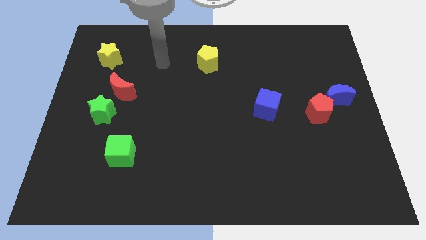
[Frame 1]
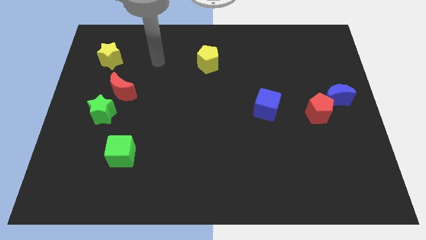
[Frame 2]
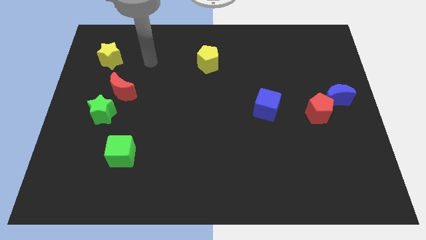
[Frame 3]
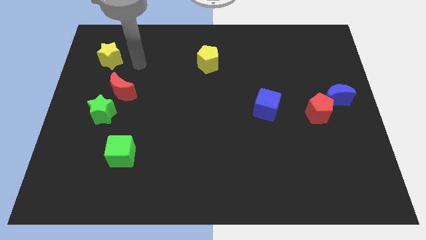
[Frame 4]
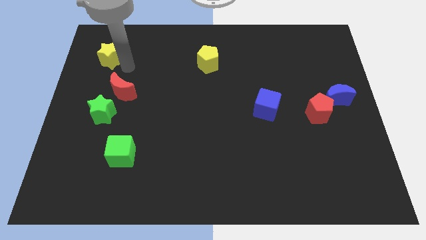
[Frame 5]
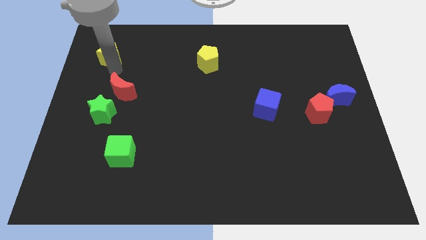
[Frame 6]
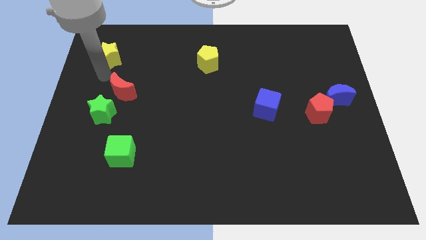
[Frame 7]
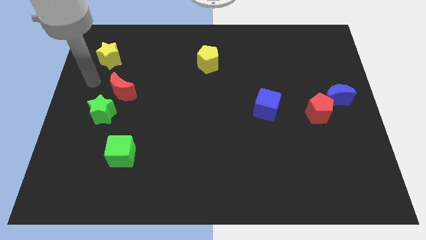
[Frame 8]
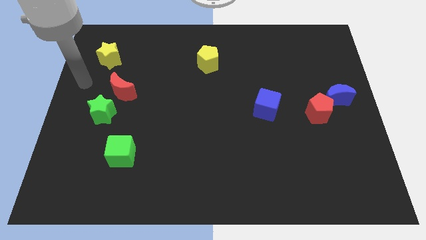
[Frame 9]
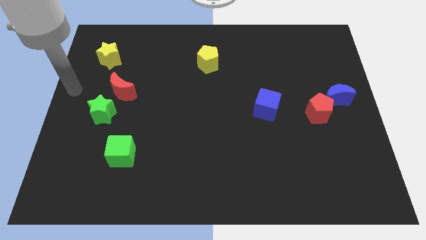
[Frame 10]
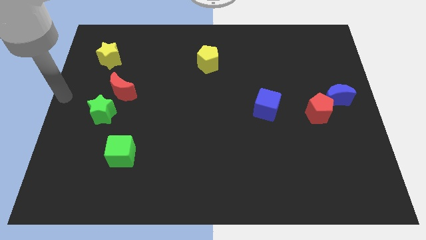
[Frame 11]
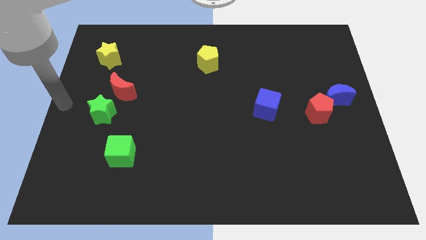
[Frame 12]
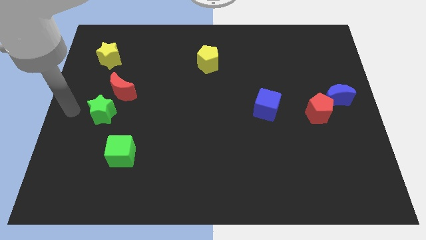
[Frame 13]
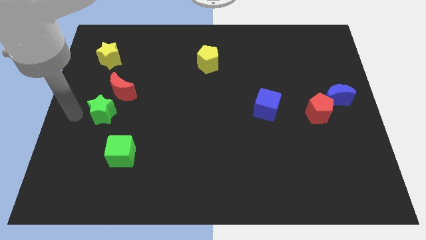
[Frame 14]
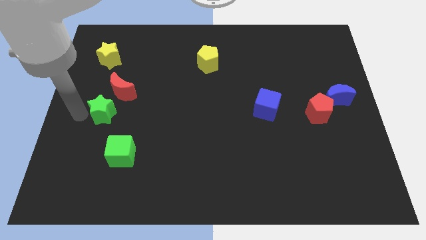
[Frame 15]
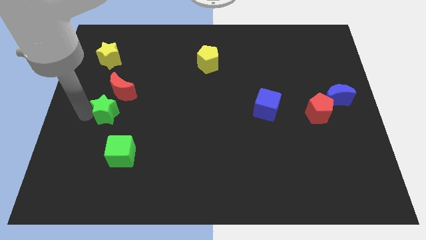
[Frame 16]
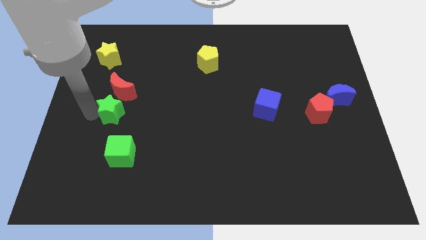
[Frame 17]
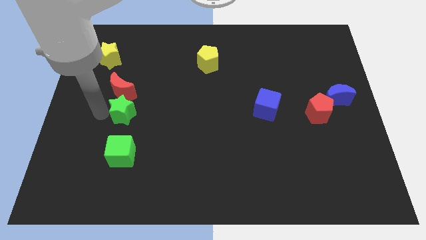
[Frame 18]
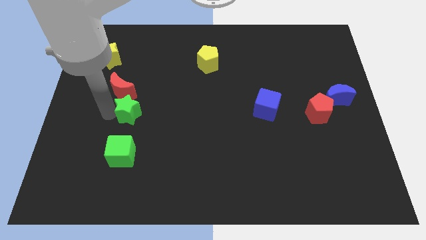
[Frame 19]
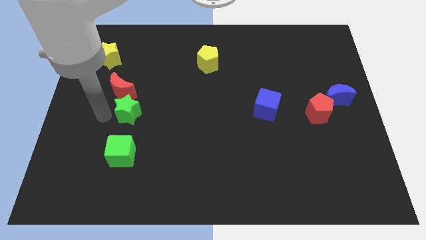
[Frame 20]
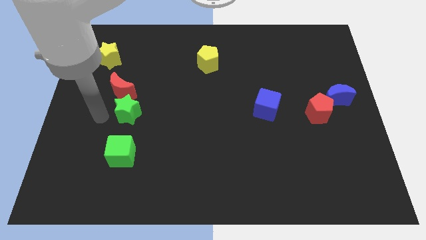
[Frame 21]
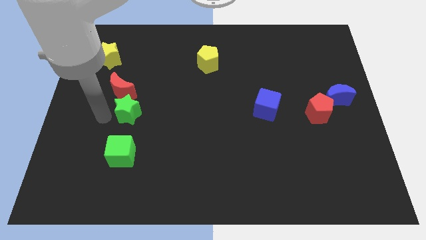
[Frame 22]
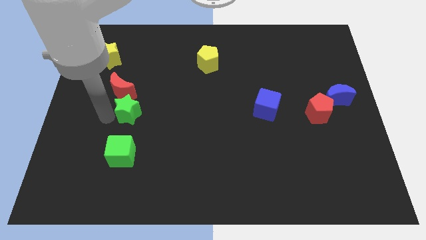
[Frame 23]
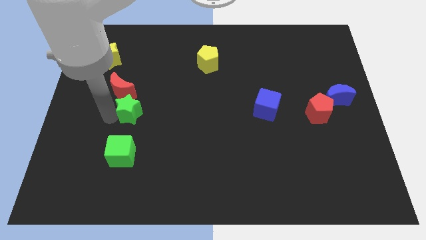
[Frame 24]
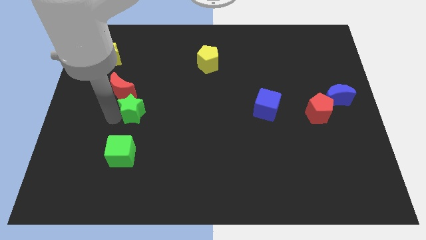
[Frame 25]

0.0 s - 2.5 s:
slightly move the green star right

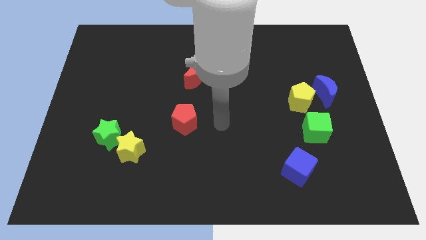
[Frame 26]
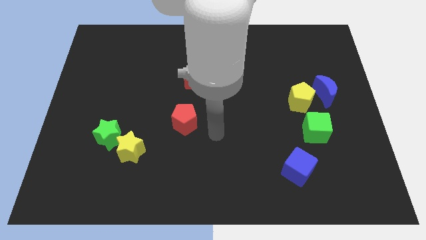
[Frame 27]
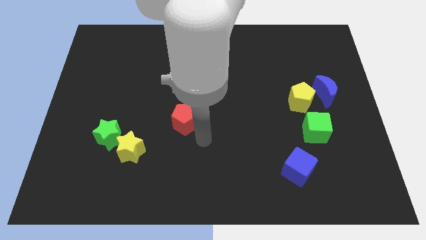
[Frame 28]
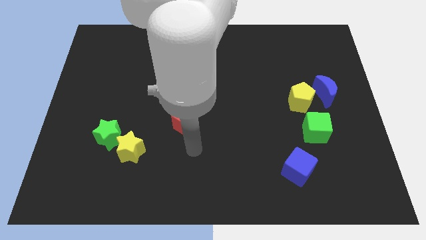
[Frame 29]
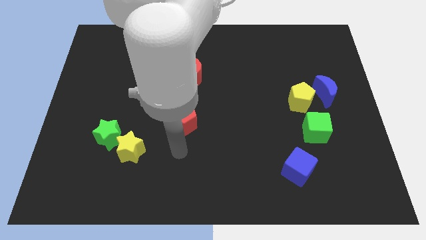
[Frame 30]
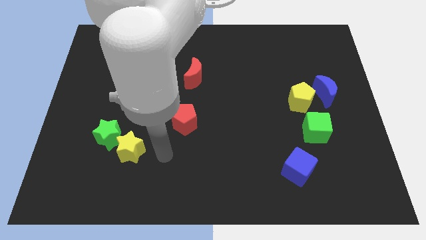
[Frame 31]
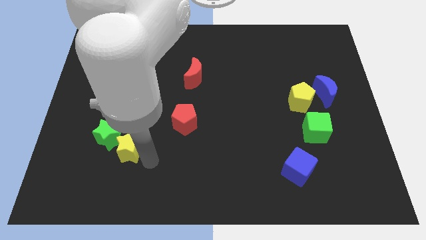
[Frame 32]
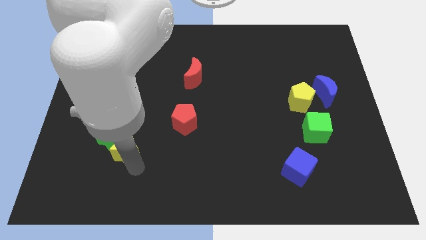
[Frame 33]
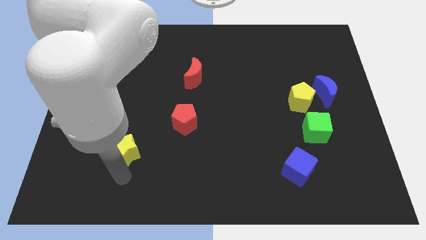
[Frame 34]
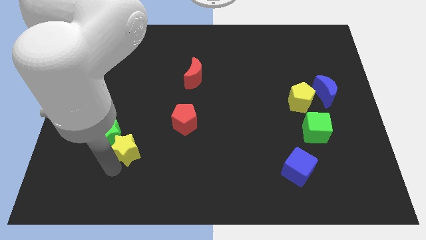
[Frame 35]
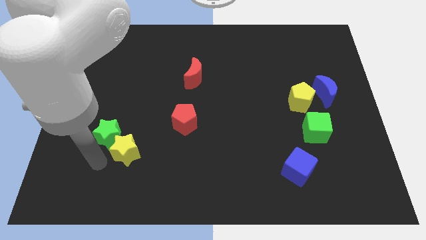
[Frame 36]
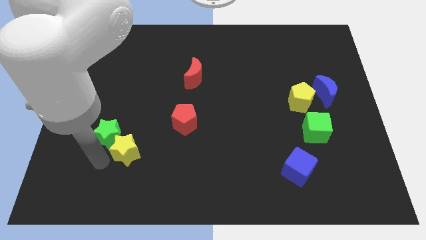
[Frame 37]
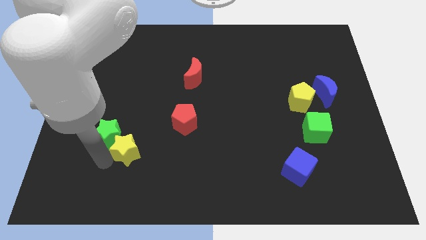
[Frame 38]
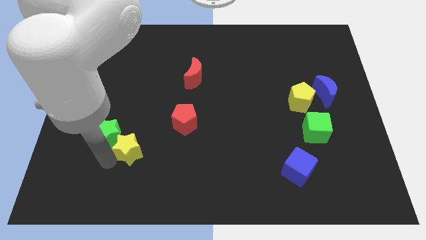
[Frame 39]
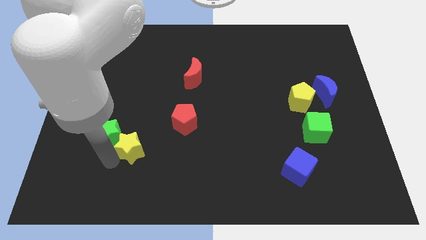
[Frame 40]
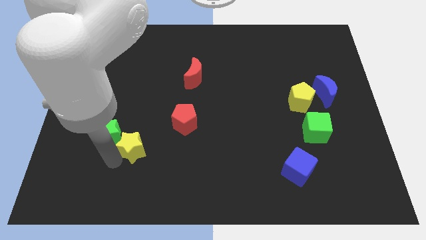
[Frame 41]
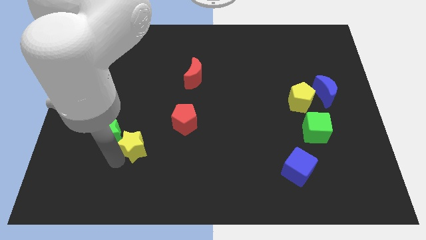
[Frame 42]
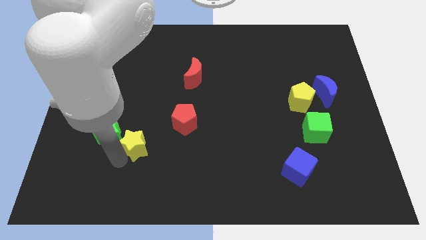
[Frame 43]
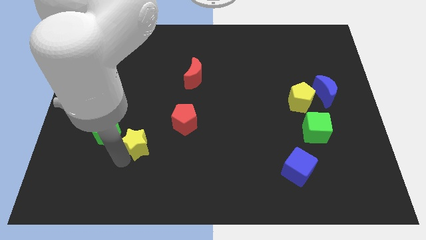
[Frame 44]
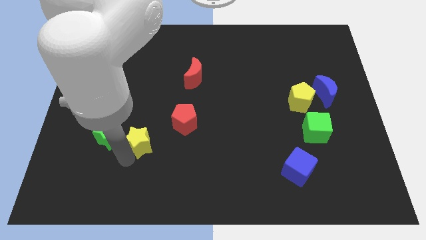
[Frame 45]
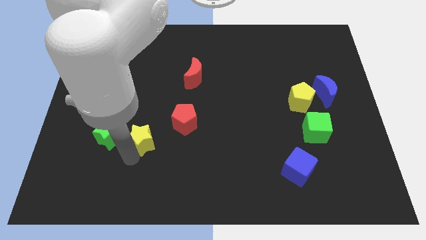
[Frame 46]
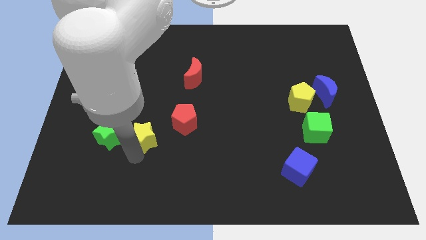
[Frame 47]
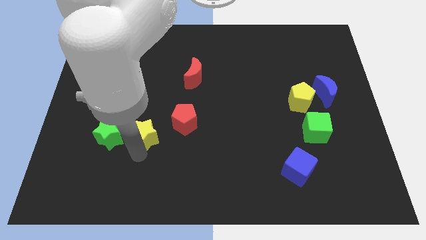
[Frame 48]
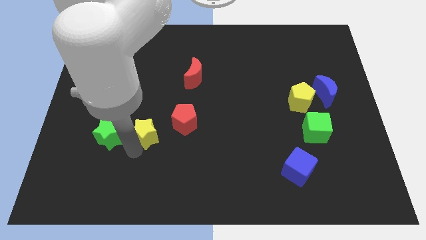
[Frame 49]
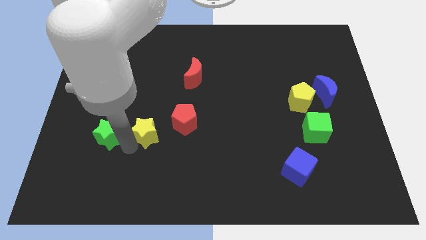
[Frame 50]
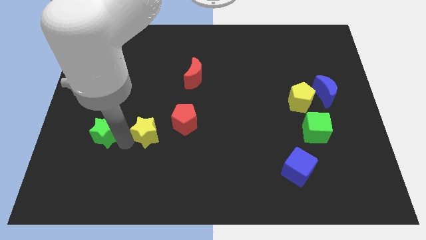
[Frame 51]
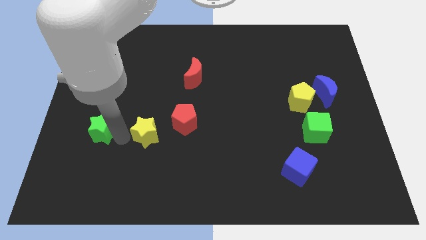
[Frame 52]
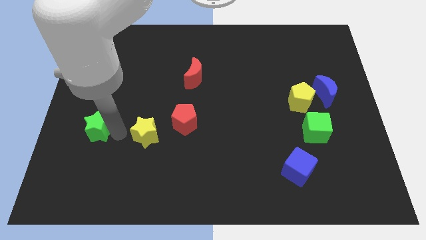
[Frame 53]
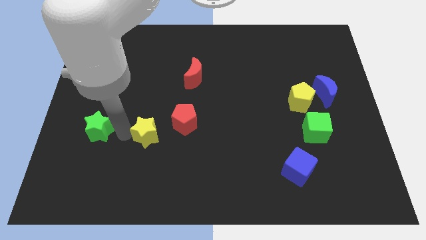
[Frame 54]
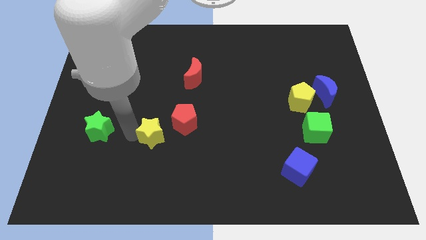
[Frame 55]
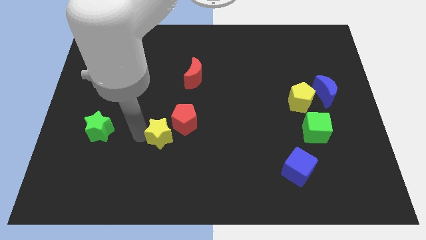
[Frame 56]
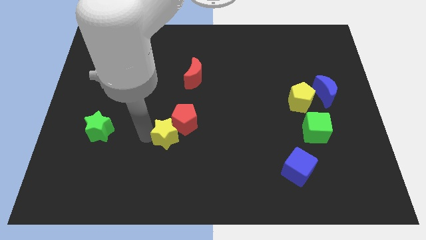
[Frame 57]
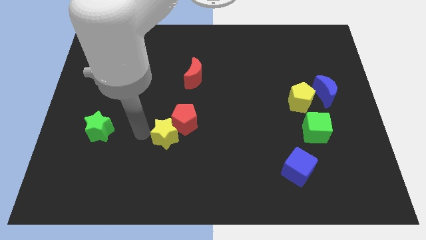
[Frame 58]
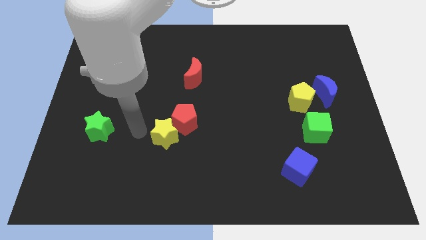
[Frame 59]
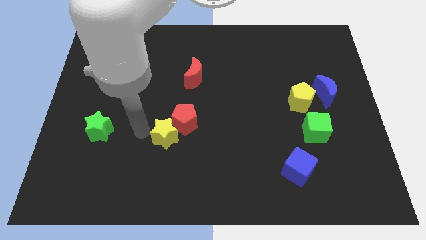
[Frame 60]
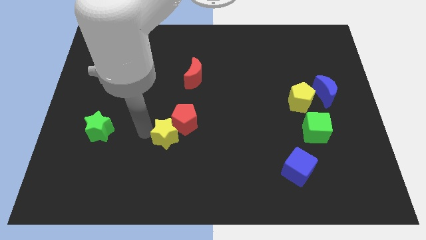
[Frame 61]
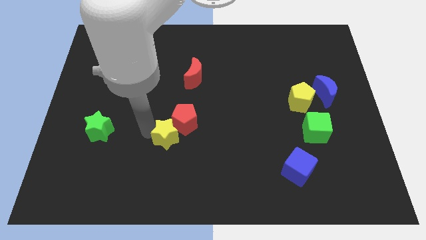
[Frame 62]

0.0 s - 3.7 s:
push the yellow star right a bit

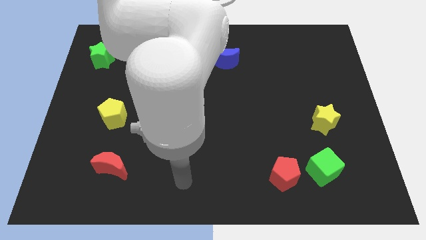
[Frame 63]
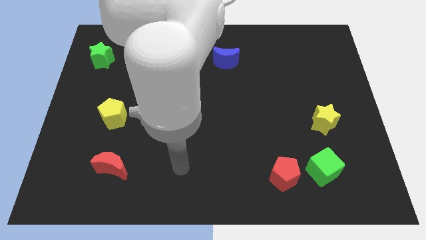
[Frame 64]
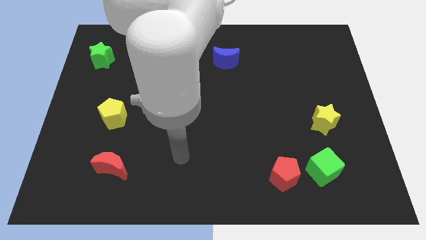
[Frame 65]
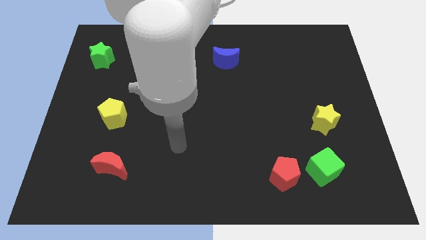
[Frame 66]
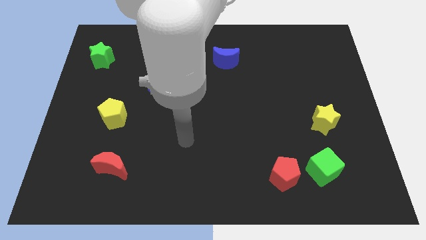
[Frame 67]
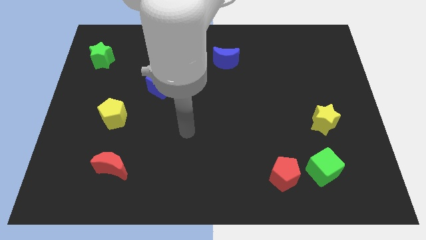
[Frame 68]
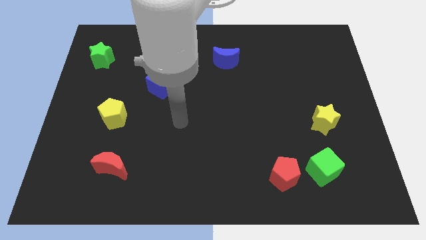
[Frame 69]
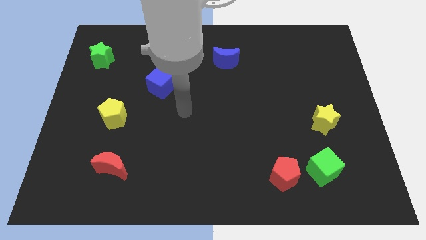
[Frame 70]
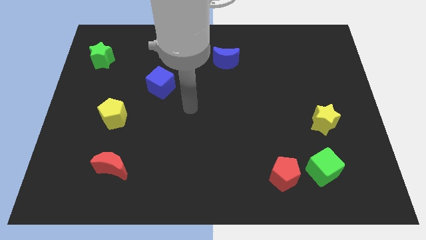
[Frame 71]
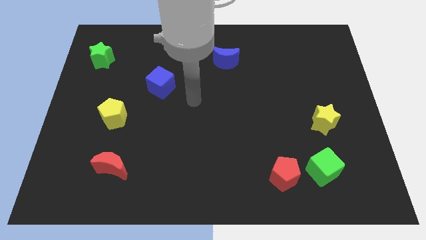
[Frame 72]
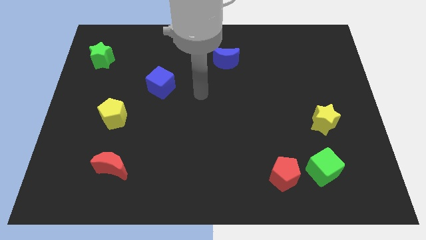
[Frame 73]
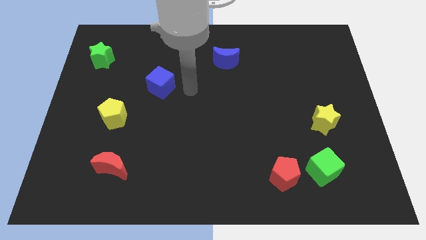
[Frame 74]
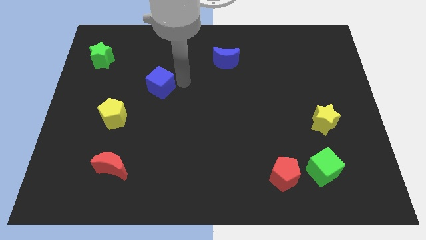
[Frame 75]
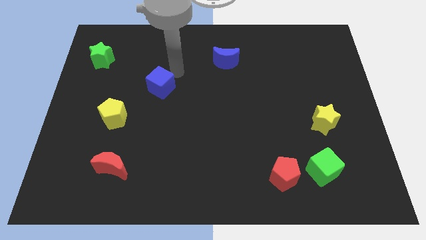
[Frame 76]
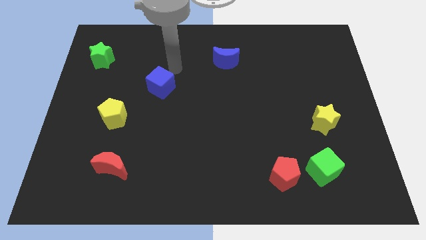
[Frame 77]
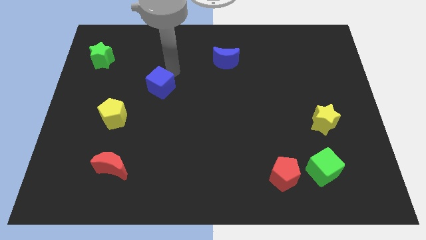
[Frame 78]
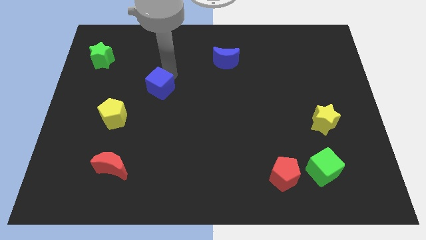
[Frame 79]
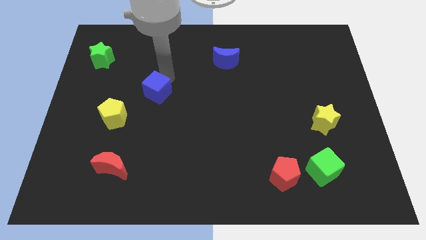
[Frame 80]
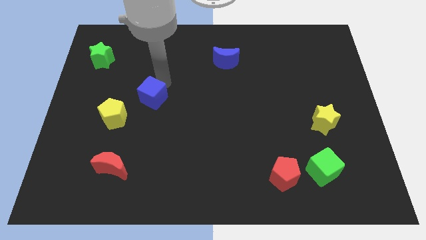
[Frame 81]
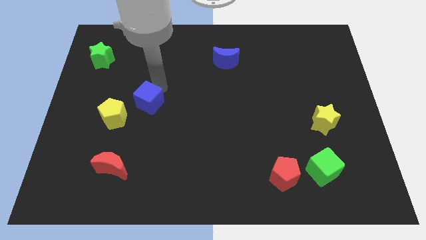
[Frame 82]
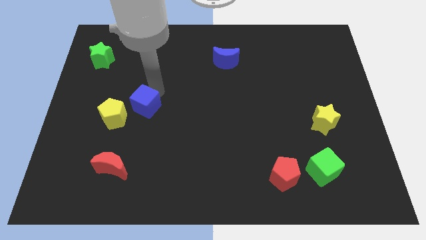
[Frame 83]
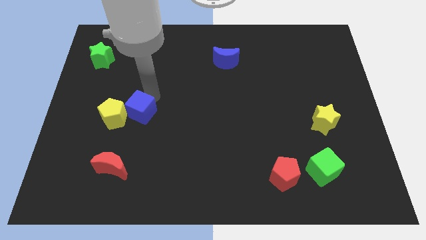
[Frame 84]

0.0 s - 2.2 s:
slide the blue cube a little down and left diagonally
